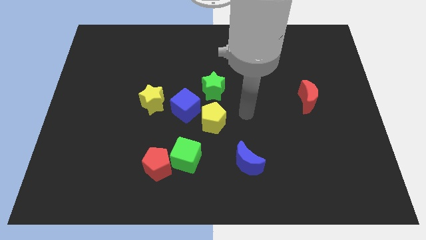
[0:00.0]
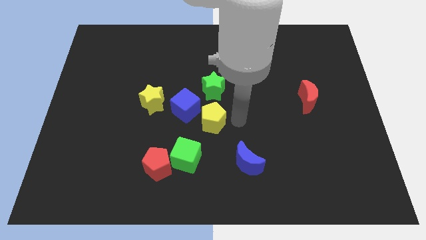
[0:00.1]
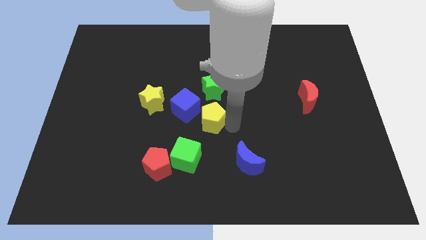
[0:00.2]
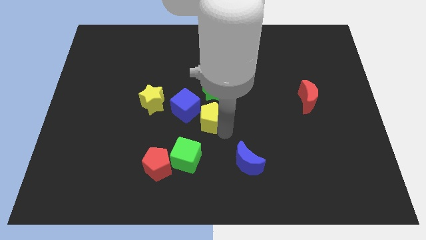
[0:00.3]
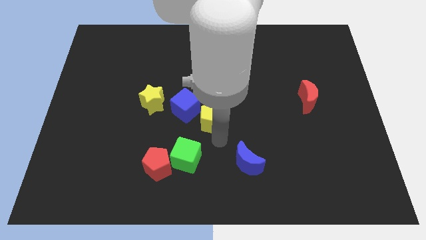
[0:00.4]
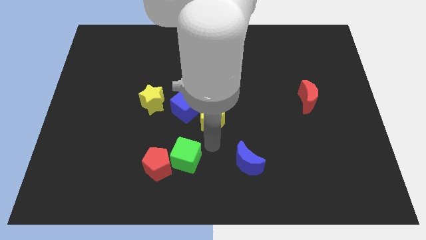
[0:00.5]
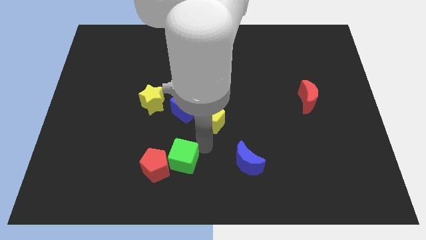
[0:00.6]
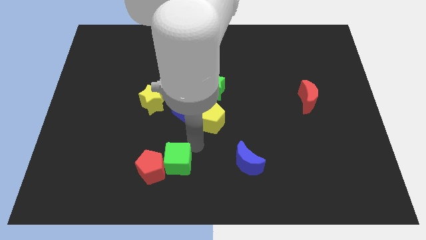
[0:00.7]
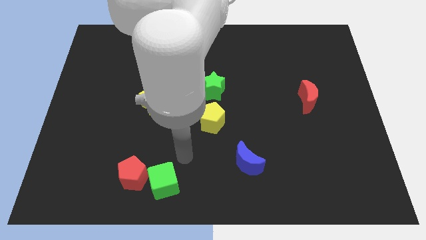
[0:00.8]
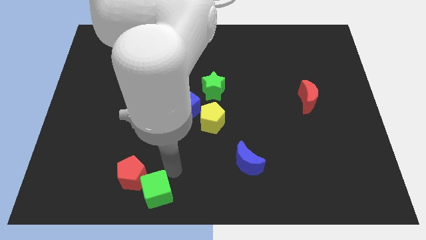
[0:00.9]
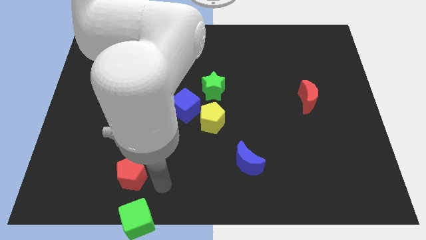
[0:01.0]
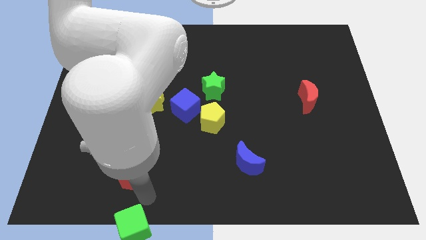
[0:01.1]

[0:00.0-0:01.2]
pull the red pentagon apart from the green cube

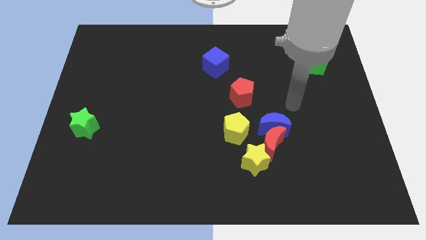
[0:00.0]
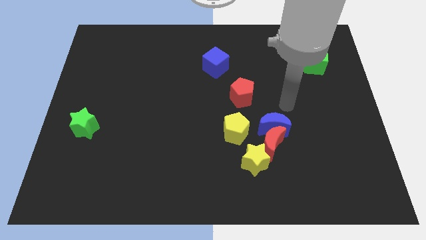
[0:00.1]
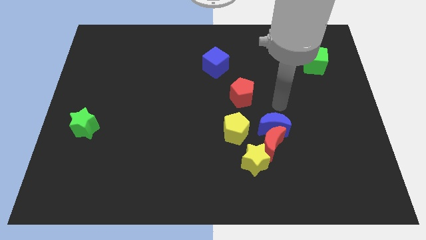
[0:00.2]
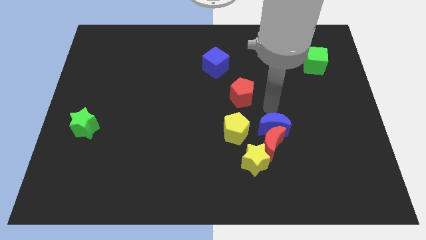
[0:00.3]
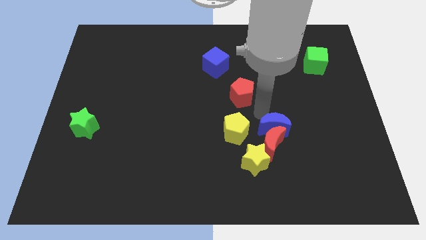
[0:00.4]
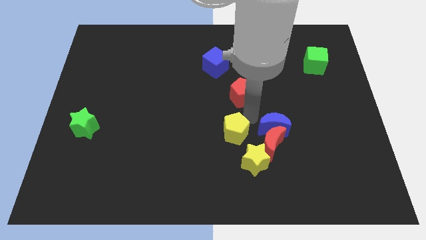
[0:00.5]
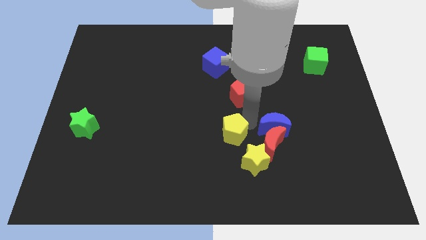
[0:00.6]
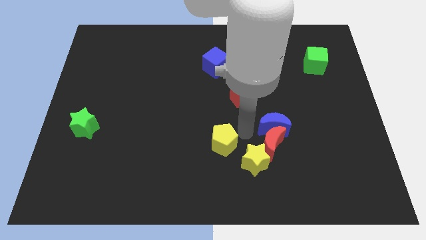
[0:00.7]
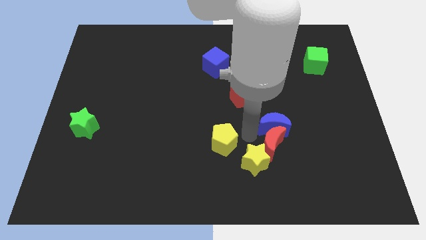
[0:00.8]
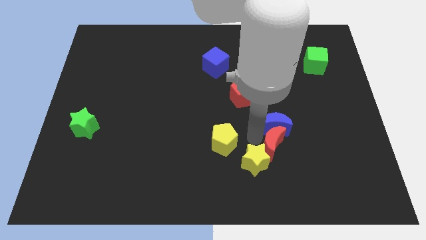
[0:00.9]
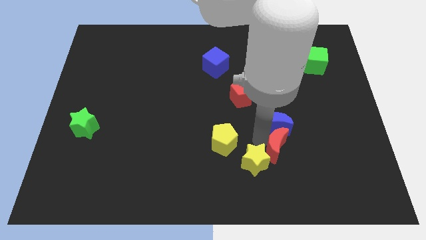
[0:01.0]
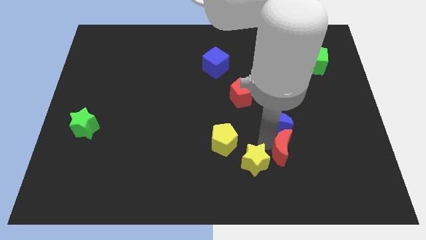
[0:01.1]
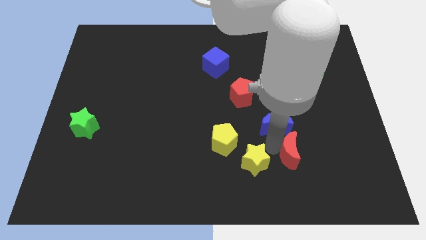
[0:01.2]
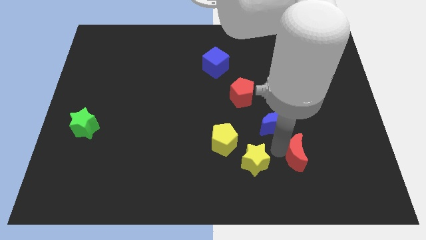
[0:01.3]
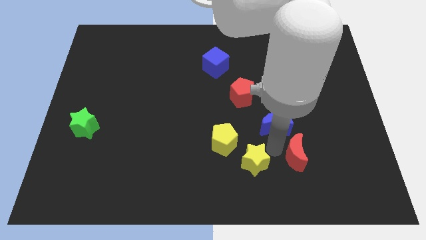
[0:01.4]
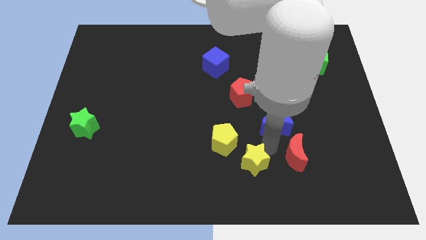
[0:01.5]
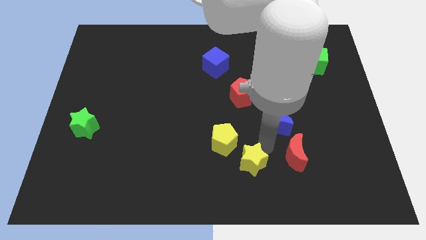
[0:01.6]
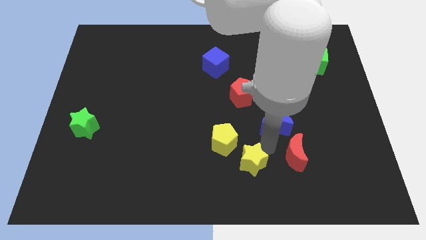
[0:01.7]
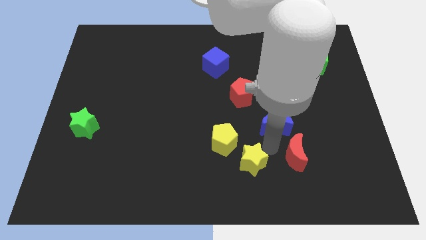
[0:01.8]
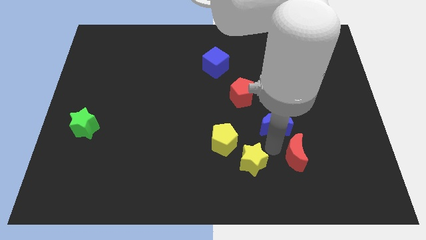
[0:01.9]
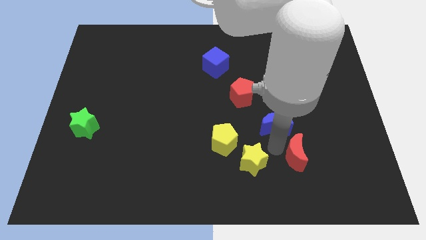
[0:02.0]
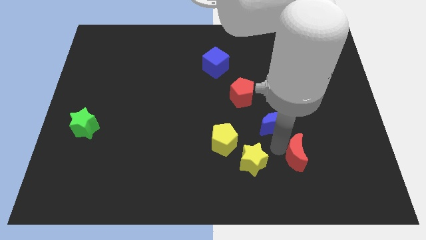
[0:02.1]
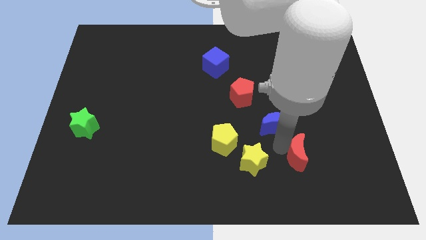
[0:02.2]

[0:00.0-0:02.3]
pull the red moon apart from the blue moon, yellow star, and yellow pentagon

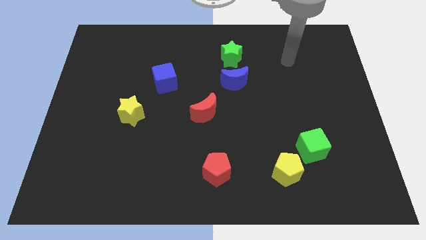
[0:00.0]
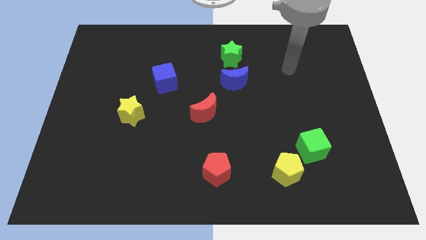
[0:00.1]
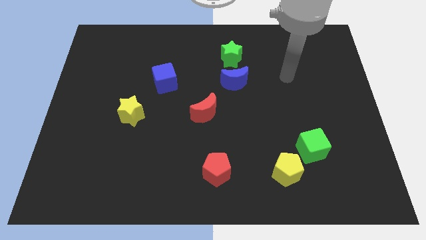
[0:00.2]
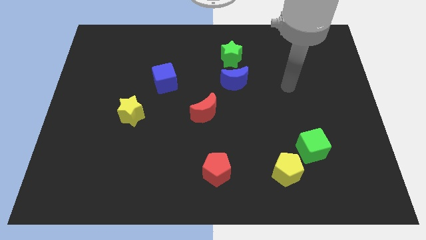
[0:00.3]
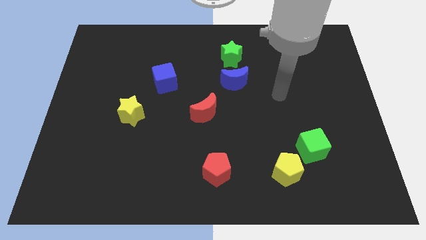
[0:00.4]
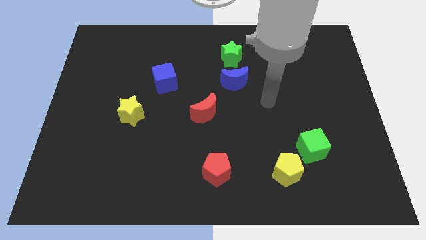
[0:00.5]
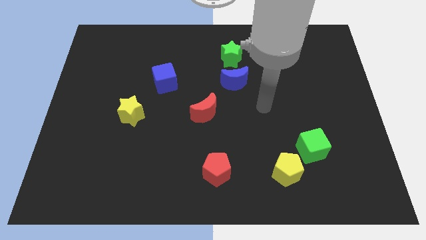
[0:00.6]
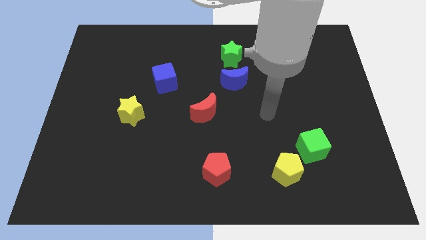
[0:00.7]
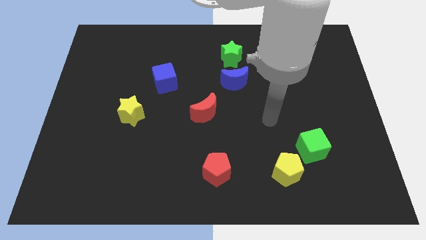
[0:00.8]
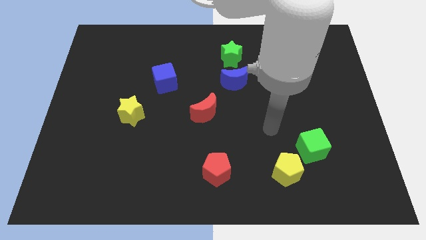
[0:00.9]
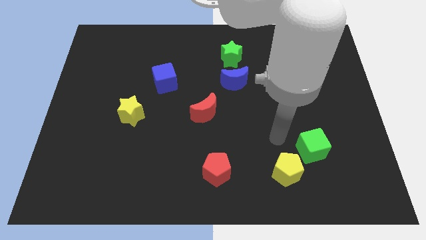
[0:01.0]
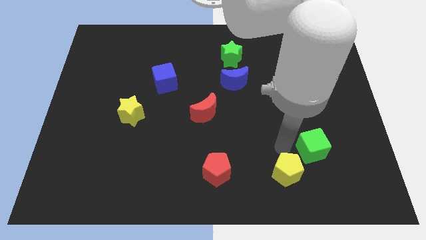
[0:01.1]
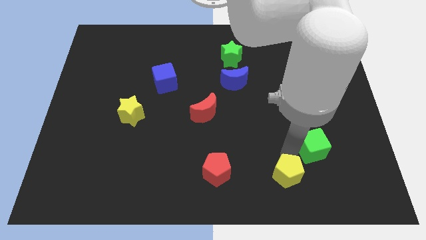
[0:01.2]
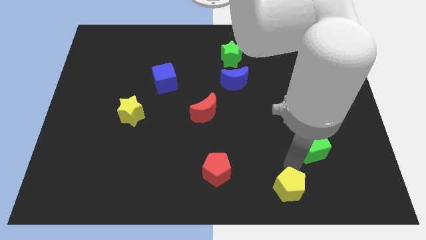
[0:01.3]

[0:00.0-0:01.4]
separate the green cube from the yellow pentagon

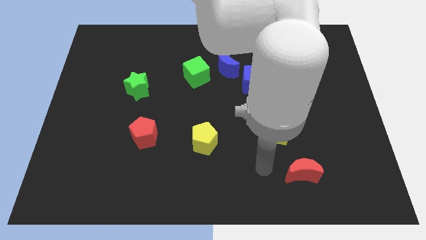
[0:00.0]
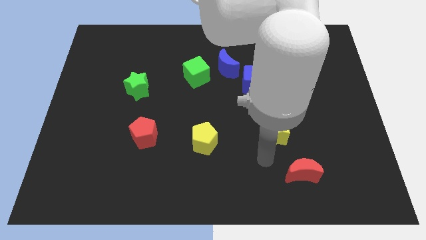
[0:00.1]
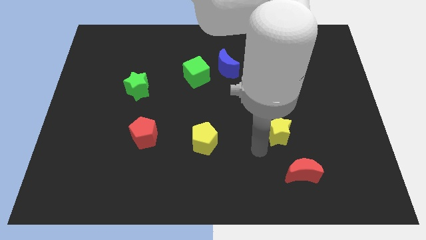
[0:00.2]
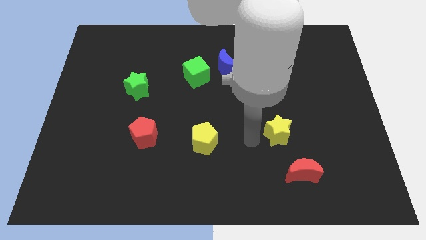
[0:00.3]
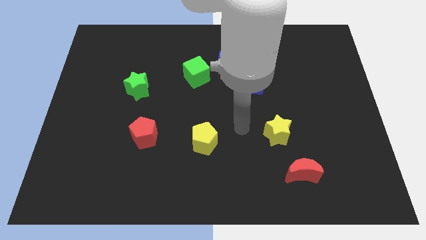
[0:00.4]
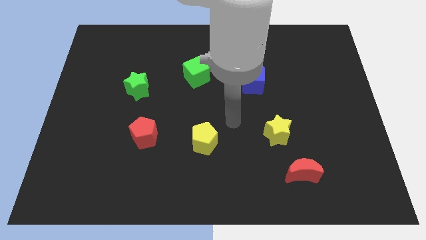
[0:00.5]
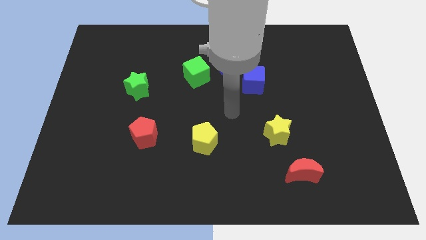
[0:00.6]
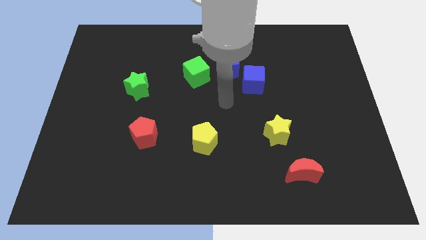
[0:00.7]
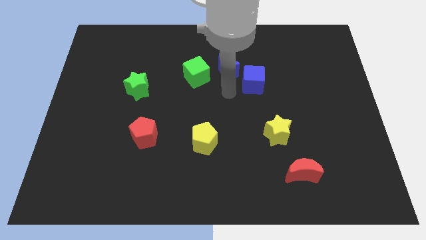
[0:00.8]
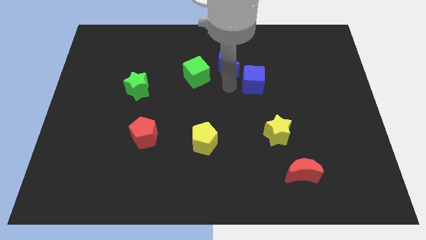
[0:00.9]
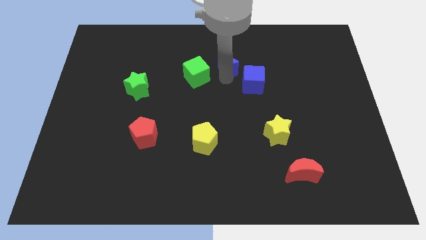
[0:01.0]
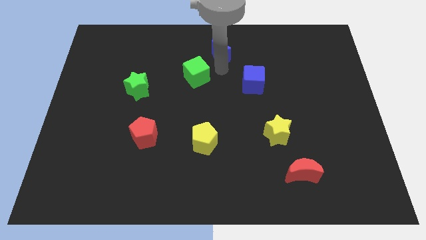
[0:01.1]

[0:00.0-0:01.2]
move the green cube away from the blue moon

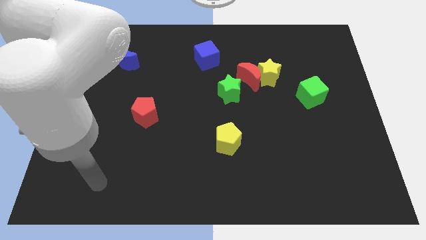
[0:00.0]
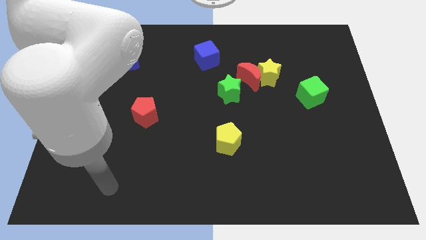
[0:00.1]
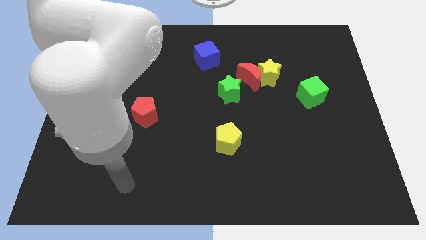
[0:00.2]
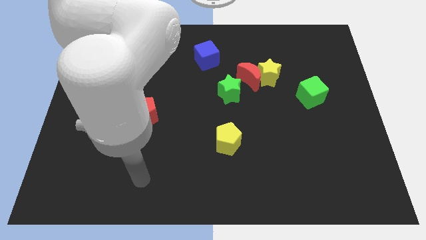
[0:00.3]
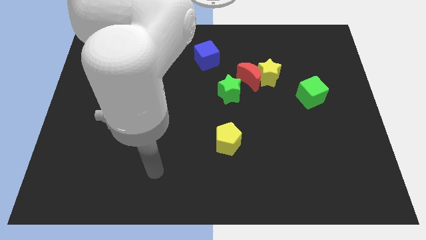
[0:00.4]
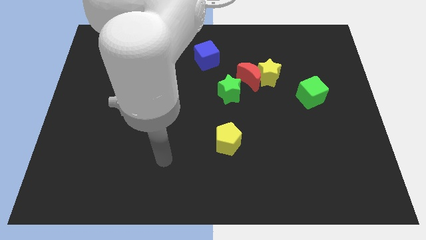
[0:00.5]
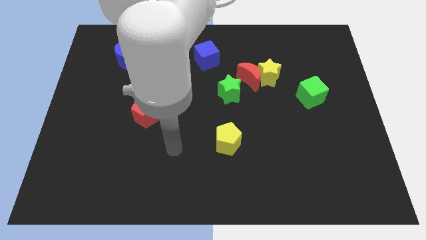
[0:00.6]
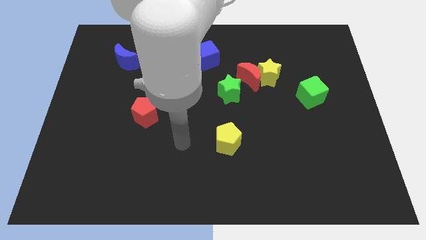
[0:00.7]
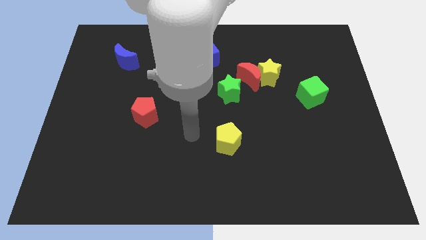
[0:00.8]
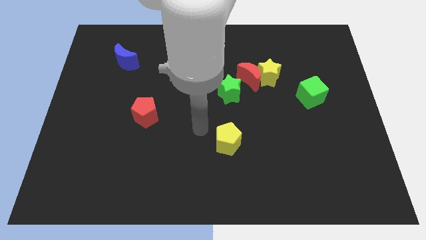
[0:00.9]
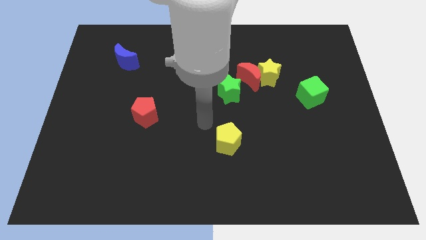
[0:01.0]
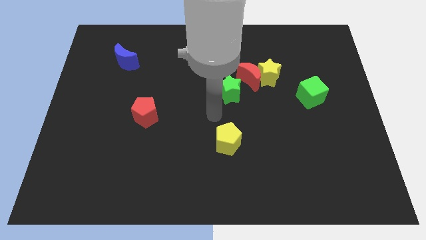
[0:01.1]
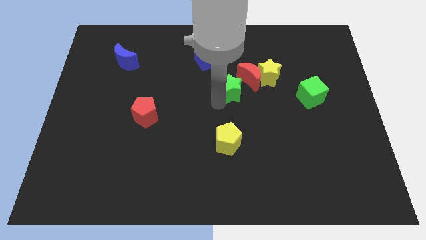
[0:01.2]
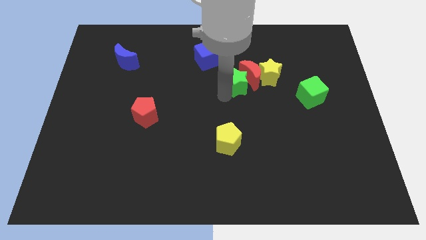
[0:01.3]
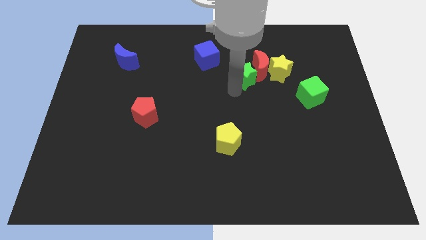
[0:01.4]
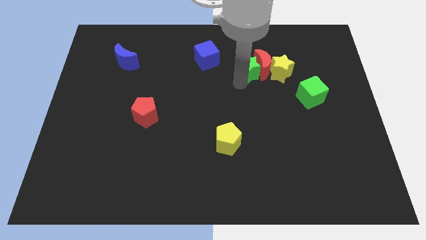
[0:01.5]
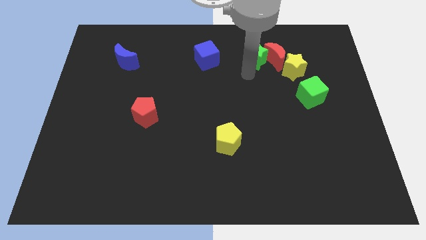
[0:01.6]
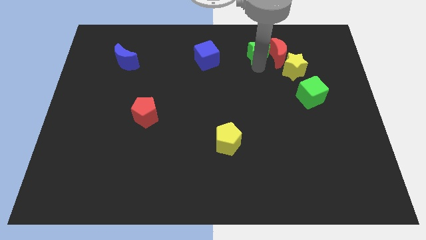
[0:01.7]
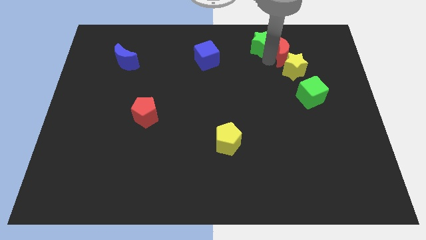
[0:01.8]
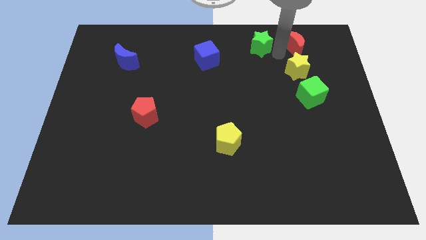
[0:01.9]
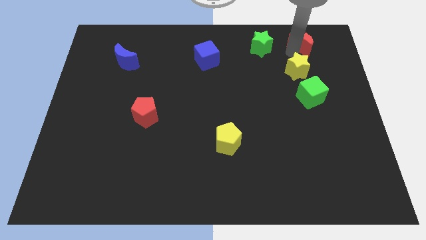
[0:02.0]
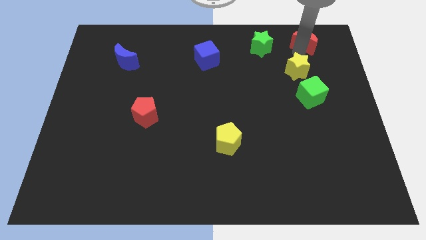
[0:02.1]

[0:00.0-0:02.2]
pull the yellow star apart from the red moon

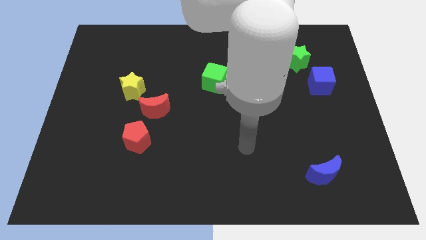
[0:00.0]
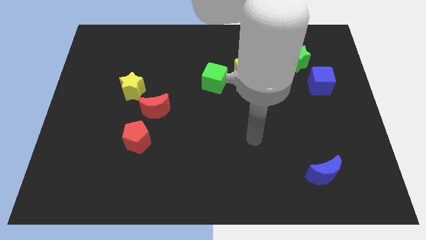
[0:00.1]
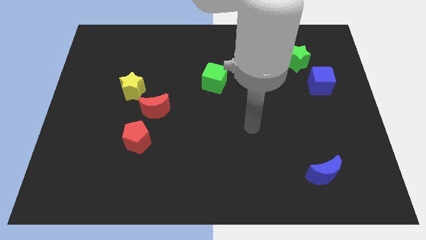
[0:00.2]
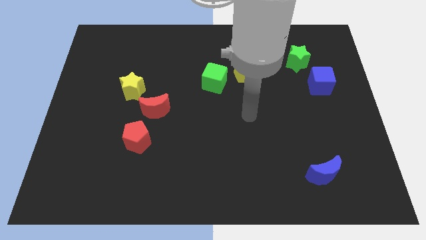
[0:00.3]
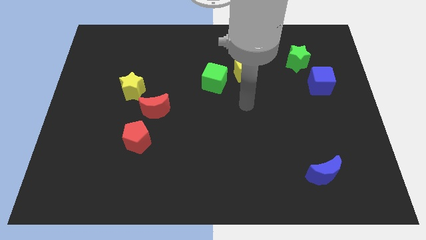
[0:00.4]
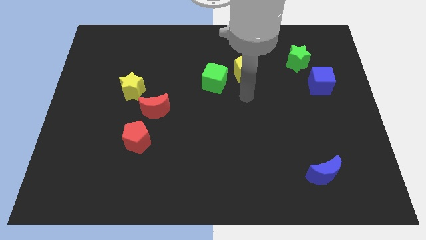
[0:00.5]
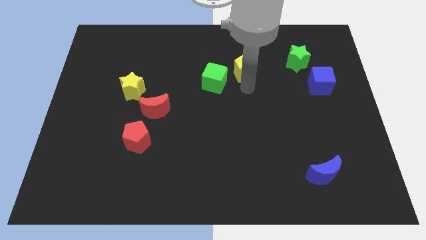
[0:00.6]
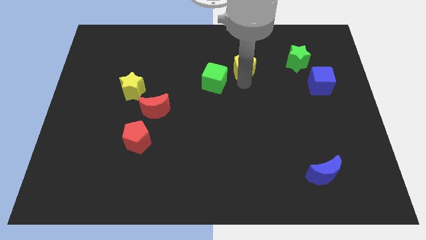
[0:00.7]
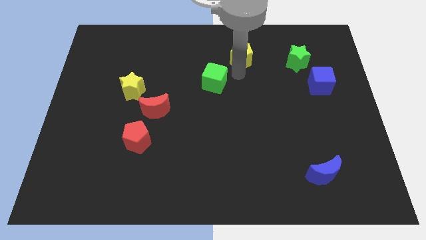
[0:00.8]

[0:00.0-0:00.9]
pull the green cube apart from the yellow pentagon

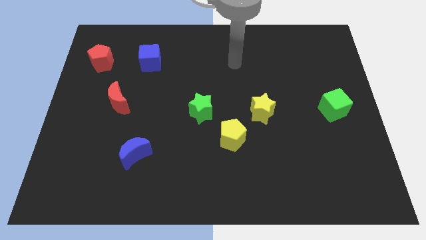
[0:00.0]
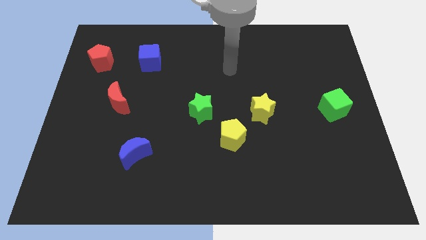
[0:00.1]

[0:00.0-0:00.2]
separate the green star from the yellow pentagon

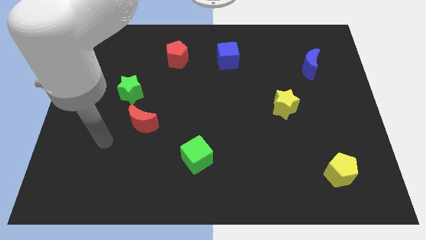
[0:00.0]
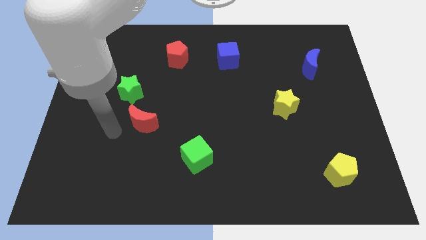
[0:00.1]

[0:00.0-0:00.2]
move the red moon away from the green star
